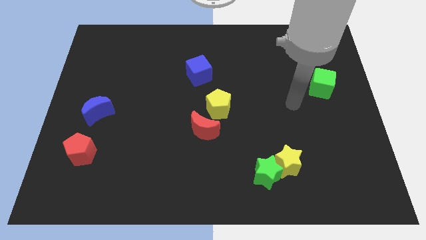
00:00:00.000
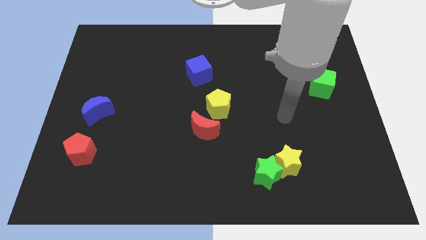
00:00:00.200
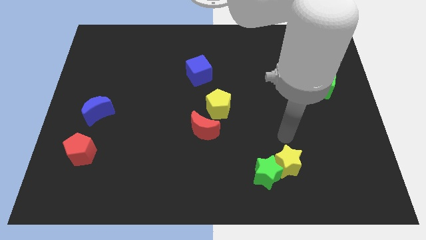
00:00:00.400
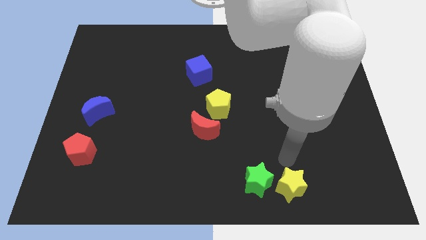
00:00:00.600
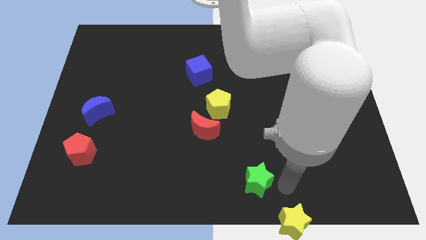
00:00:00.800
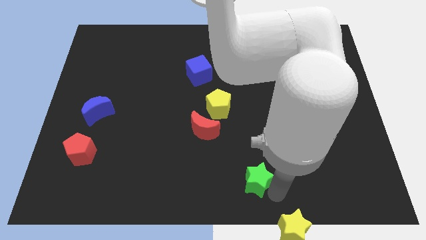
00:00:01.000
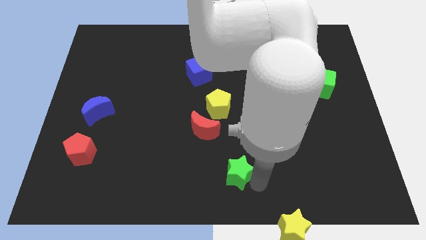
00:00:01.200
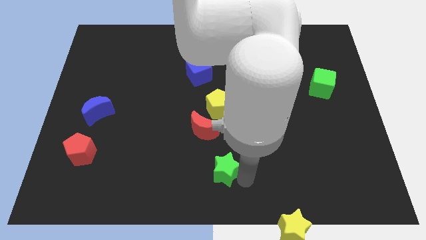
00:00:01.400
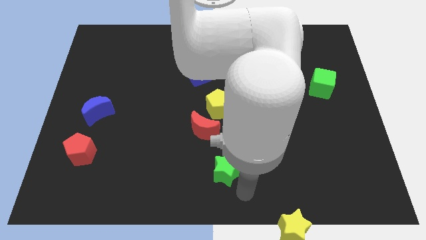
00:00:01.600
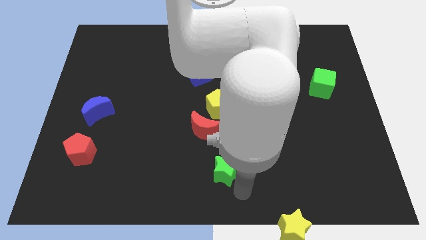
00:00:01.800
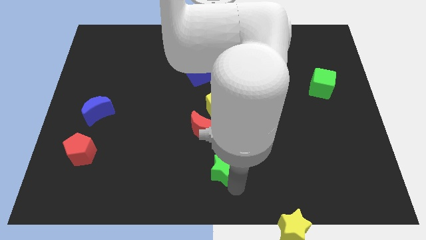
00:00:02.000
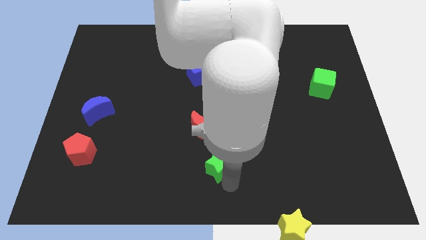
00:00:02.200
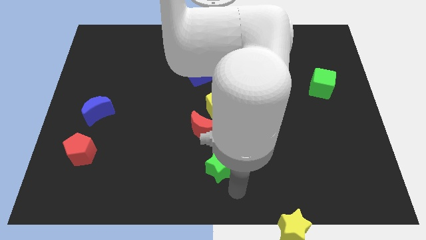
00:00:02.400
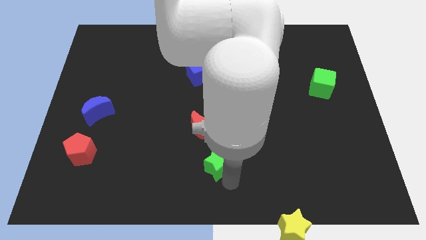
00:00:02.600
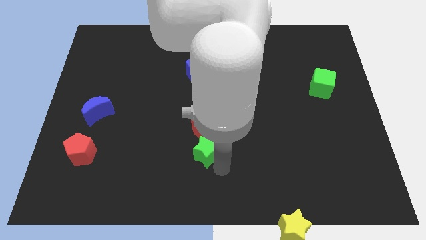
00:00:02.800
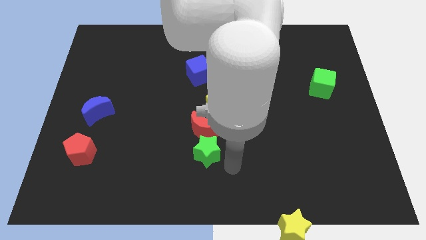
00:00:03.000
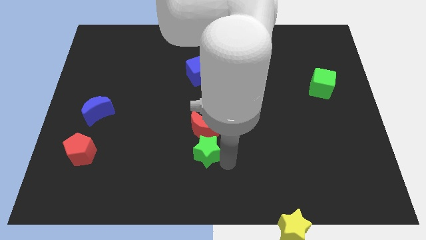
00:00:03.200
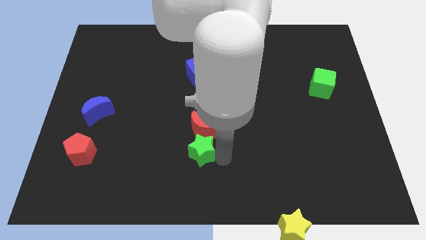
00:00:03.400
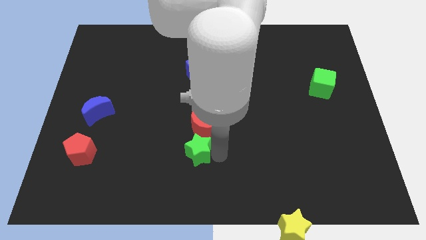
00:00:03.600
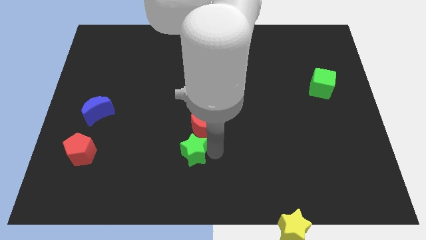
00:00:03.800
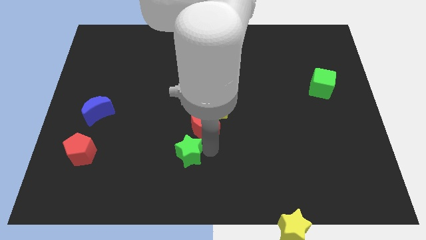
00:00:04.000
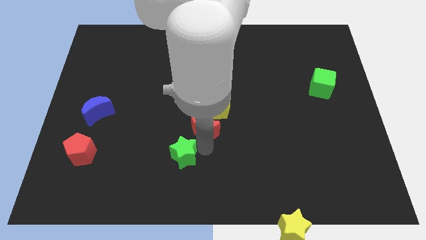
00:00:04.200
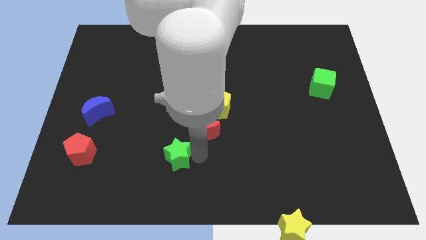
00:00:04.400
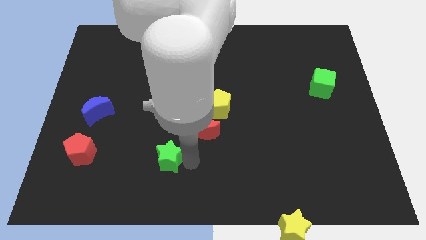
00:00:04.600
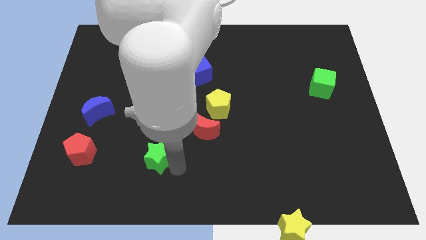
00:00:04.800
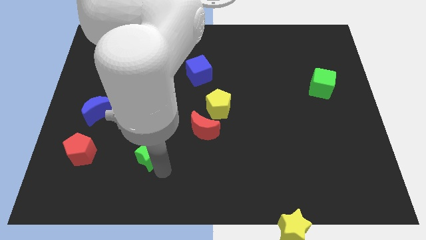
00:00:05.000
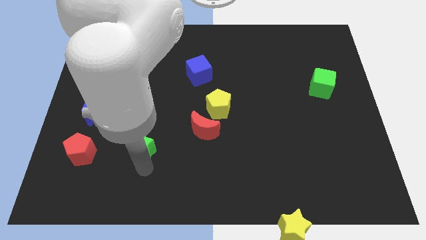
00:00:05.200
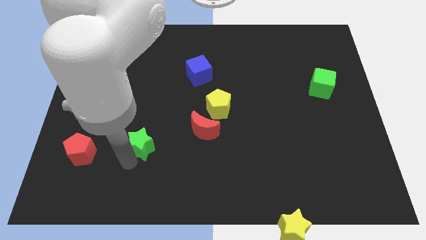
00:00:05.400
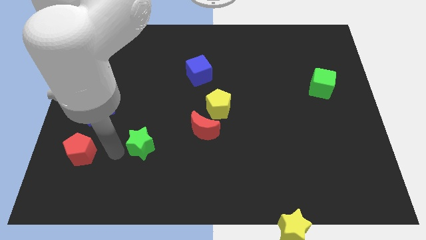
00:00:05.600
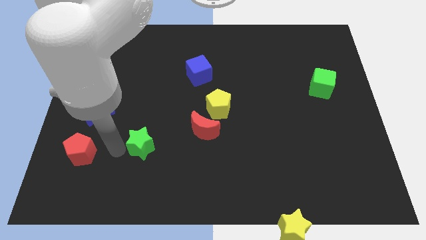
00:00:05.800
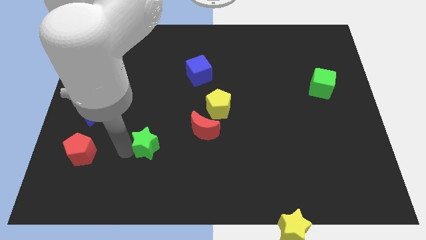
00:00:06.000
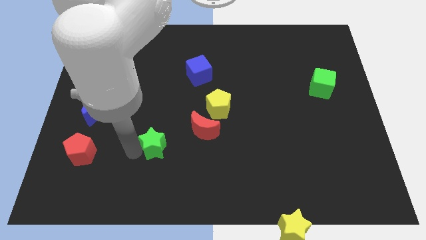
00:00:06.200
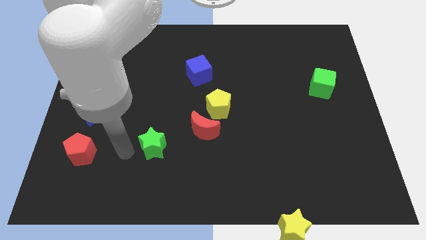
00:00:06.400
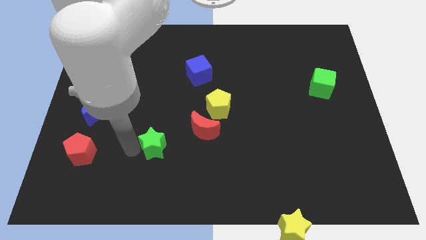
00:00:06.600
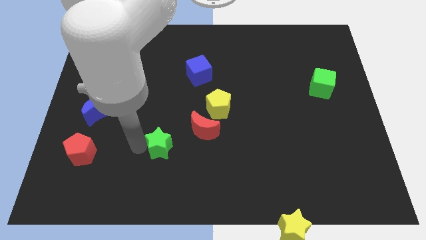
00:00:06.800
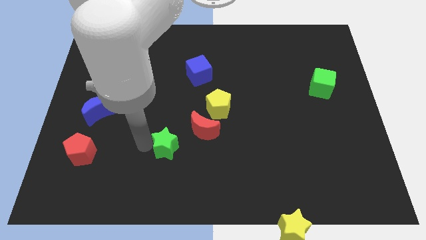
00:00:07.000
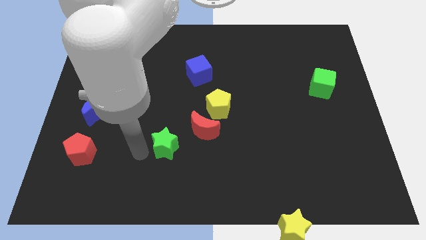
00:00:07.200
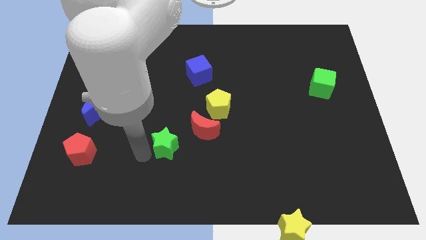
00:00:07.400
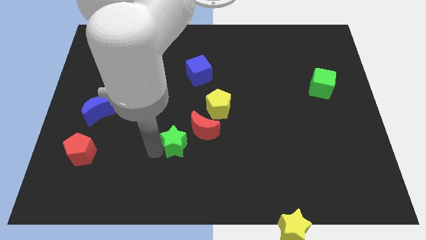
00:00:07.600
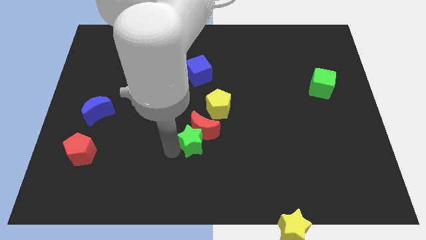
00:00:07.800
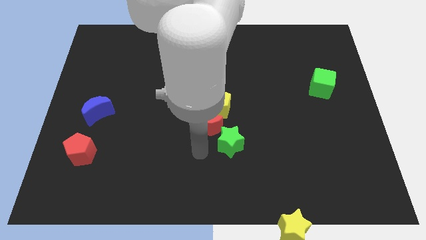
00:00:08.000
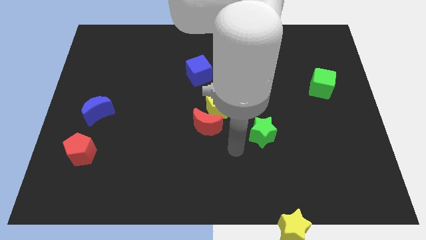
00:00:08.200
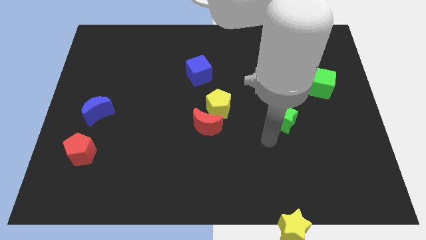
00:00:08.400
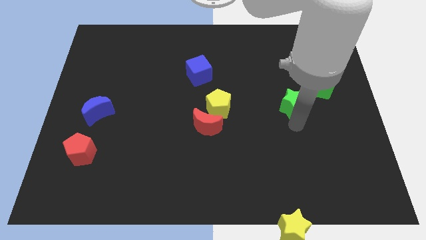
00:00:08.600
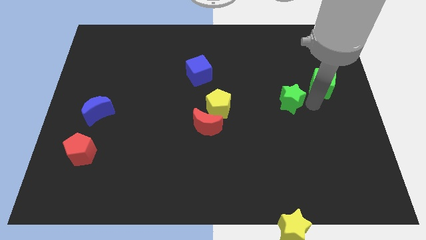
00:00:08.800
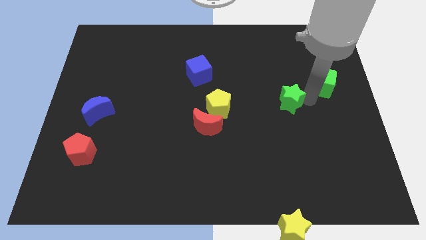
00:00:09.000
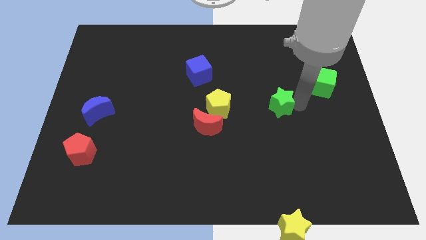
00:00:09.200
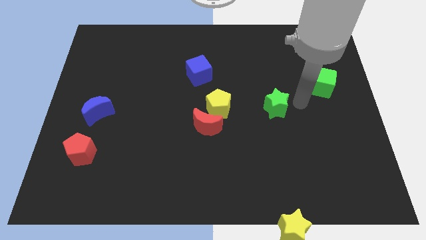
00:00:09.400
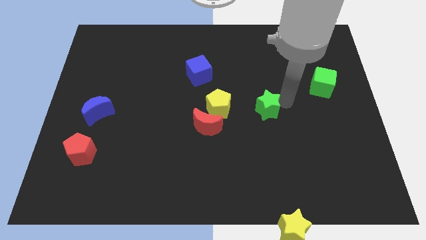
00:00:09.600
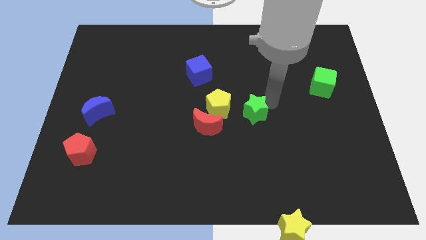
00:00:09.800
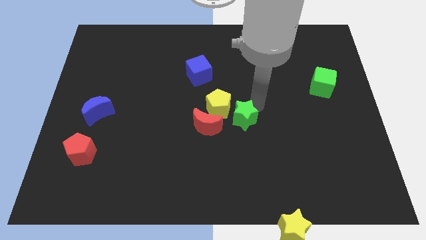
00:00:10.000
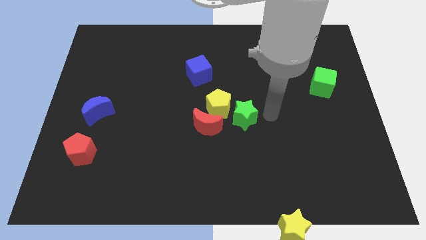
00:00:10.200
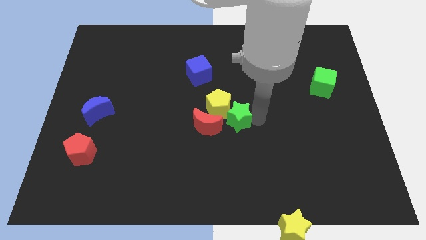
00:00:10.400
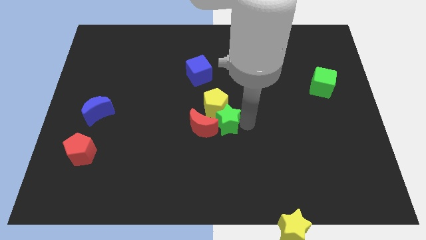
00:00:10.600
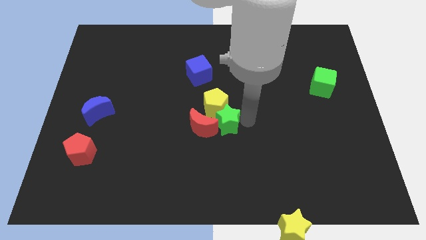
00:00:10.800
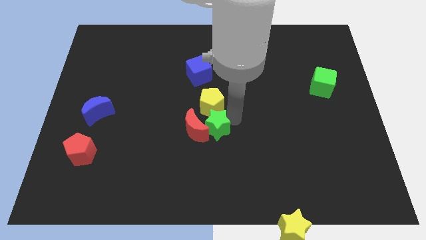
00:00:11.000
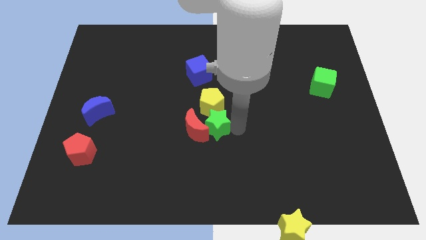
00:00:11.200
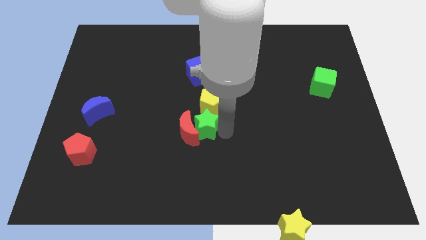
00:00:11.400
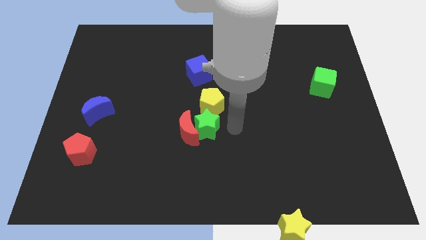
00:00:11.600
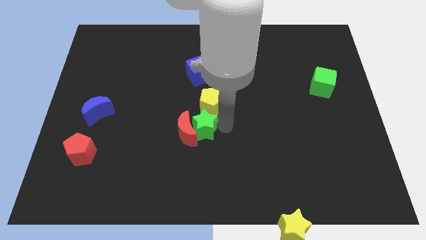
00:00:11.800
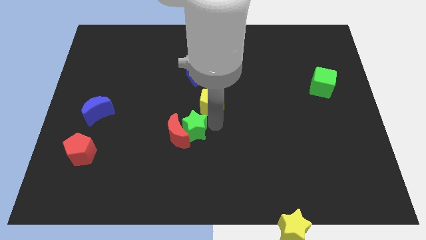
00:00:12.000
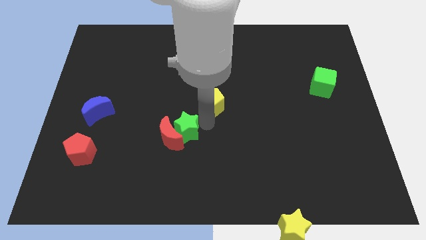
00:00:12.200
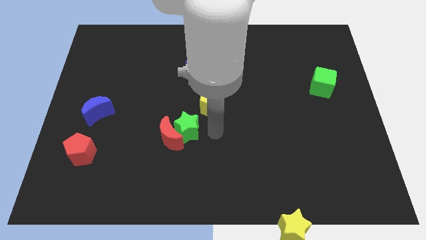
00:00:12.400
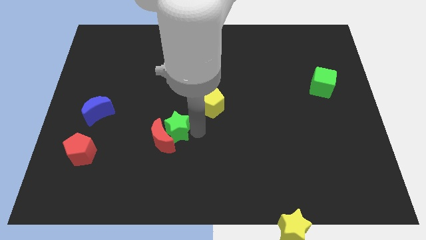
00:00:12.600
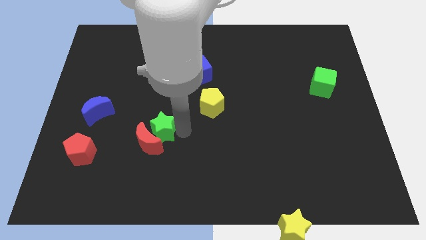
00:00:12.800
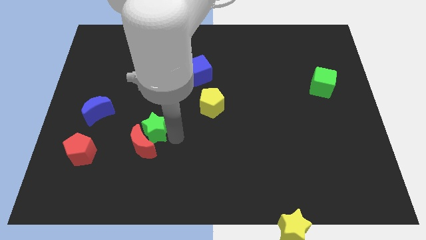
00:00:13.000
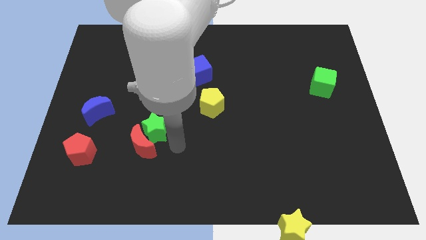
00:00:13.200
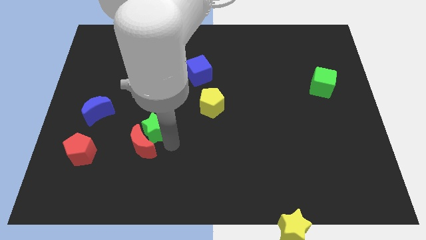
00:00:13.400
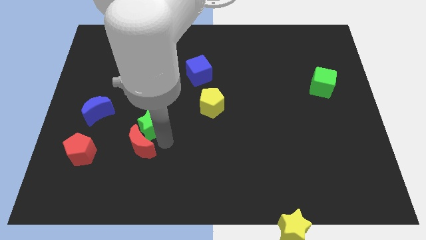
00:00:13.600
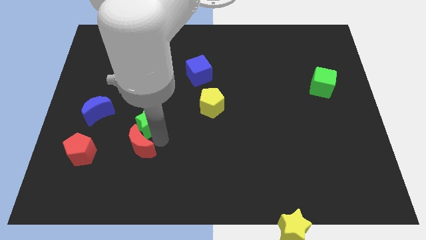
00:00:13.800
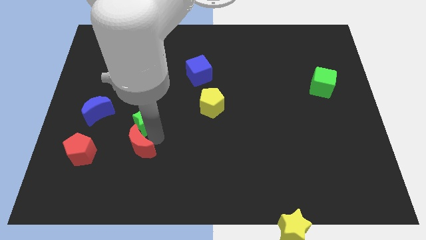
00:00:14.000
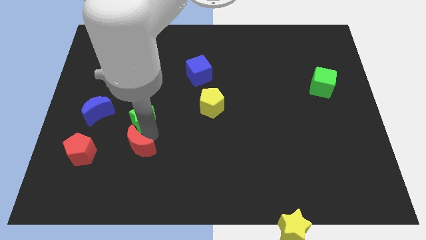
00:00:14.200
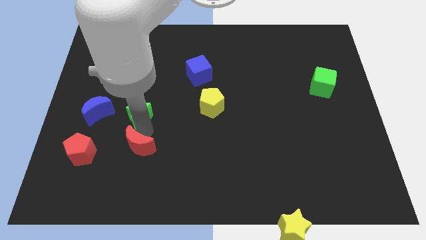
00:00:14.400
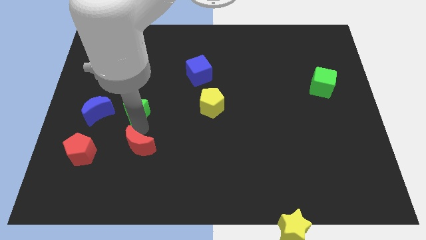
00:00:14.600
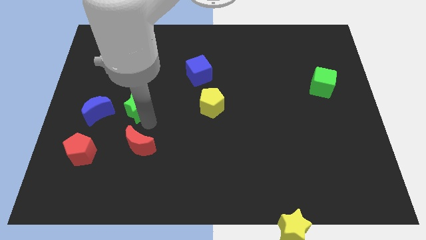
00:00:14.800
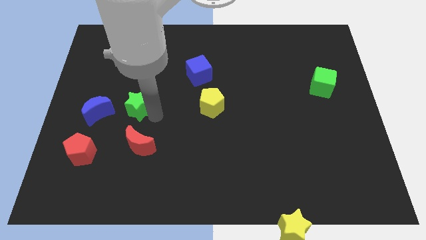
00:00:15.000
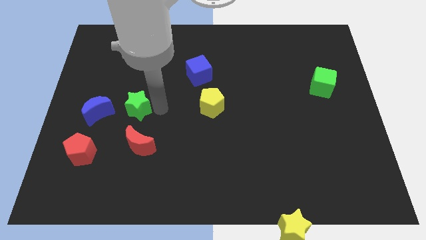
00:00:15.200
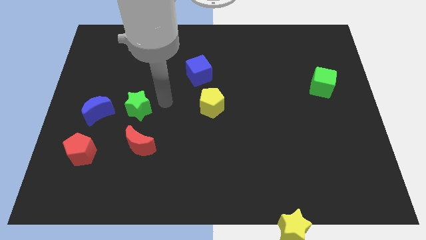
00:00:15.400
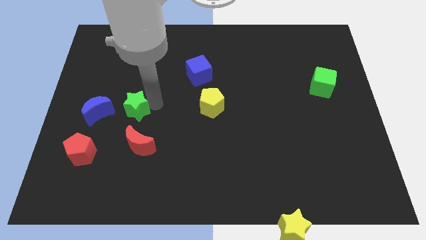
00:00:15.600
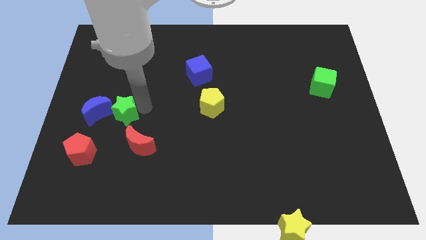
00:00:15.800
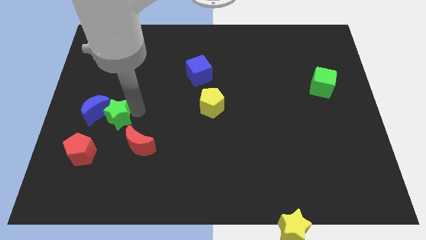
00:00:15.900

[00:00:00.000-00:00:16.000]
slide the green star close to the blue moon

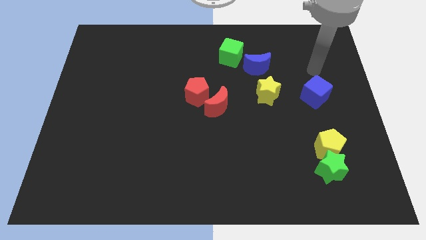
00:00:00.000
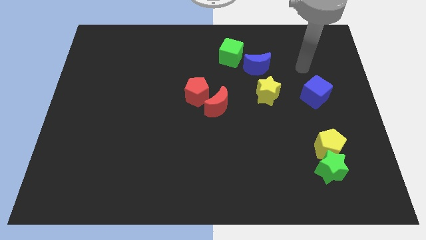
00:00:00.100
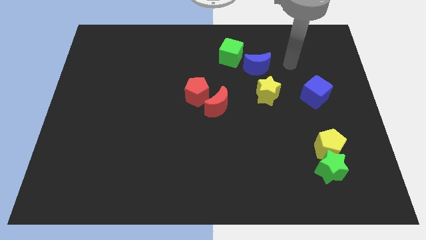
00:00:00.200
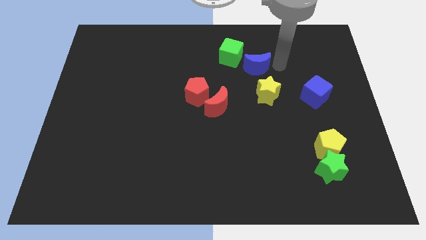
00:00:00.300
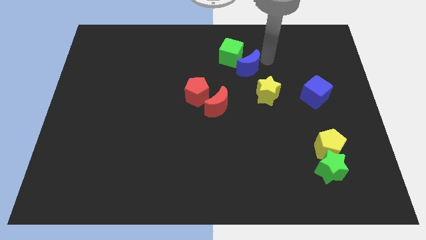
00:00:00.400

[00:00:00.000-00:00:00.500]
put the green cube next to the blue moon
